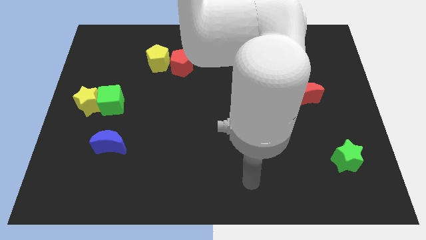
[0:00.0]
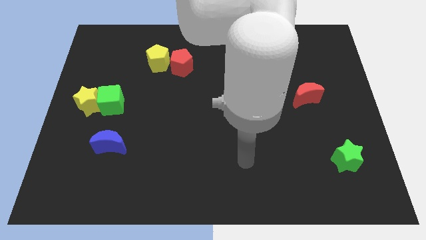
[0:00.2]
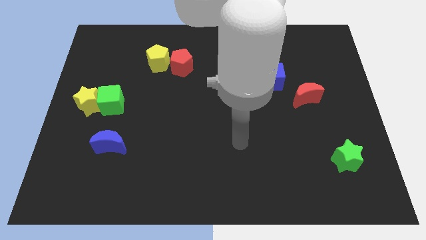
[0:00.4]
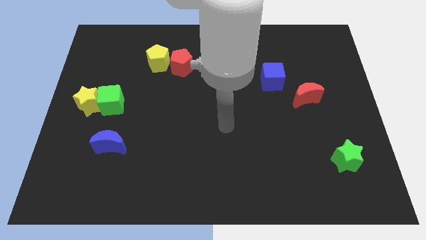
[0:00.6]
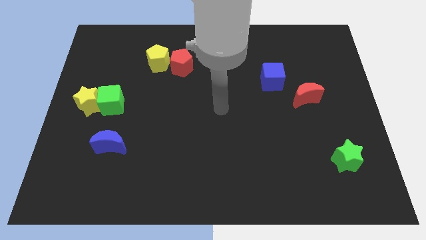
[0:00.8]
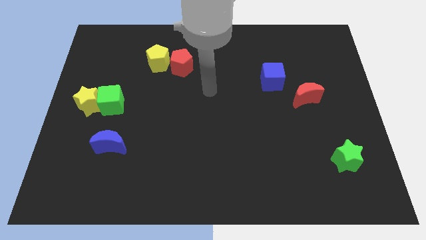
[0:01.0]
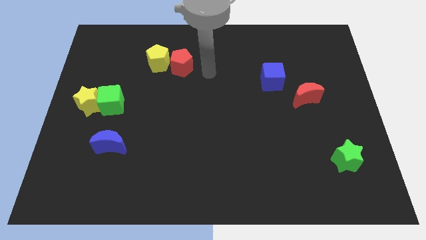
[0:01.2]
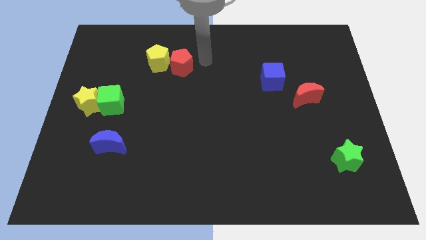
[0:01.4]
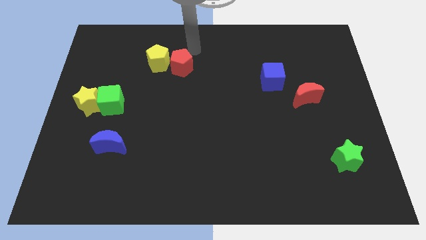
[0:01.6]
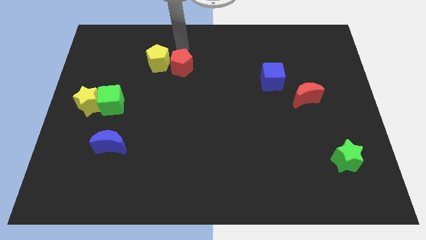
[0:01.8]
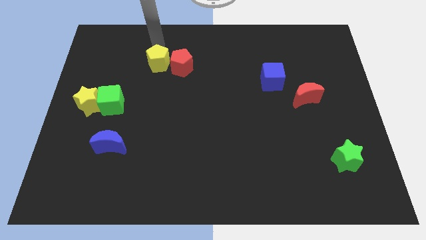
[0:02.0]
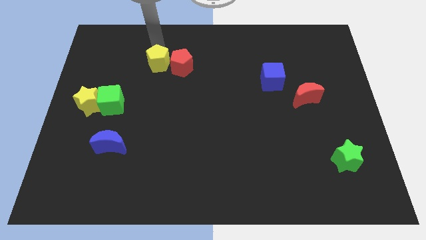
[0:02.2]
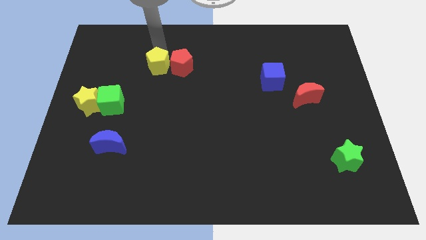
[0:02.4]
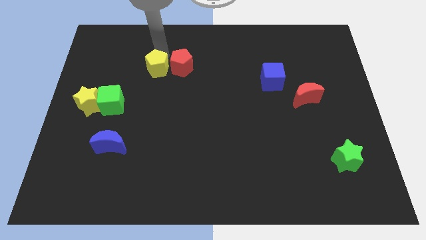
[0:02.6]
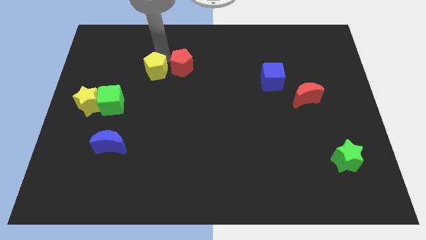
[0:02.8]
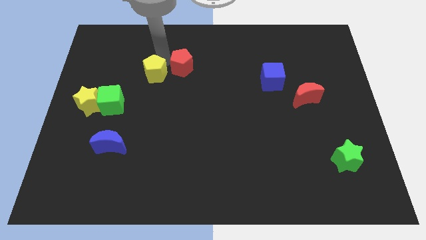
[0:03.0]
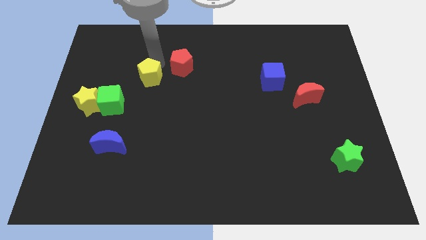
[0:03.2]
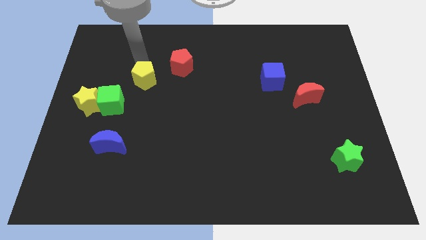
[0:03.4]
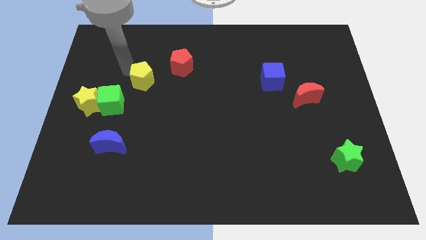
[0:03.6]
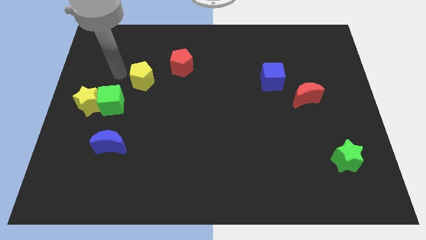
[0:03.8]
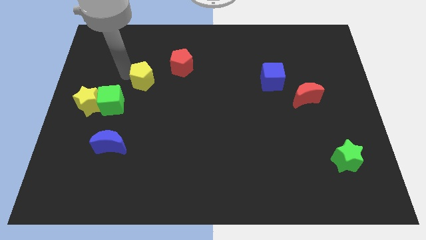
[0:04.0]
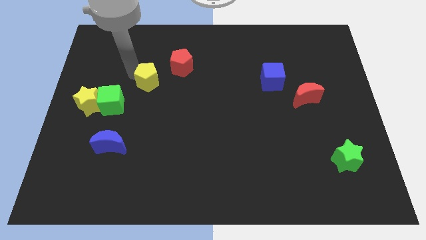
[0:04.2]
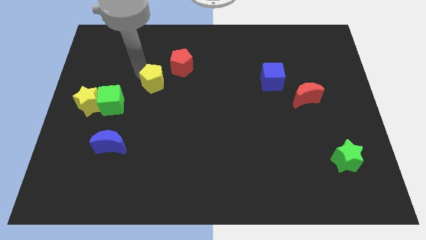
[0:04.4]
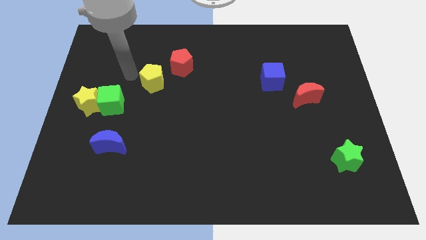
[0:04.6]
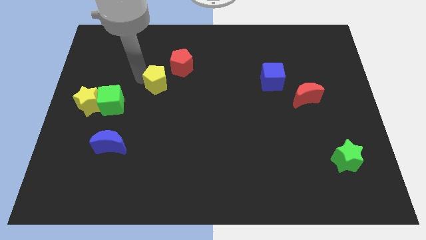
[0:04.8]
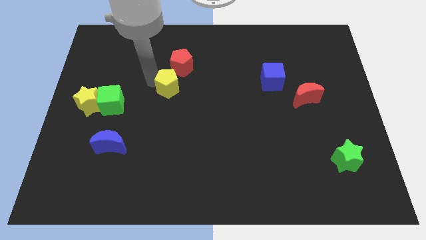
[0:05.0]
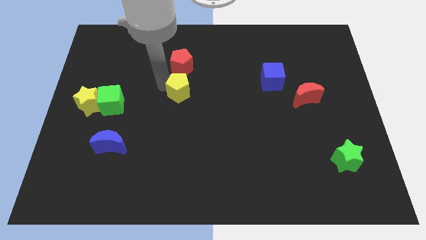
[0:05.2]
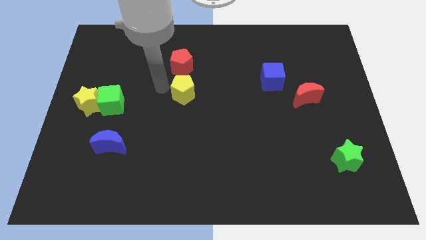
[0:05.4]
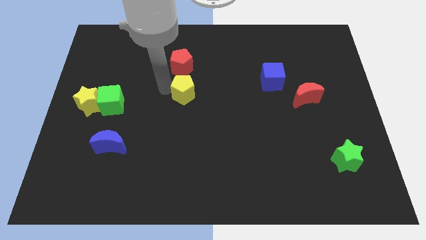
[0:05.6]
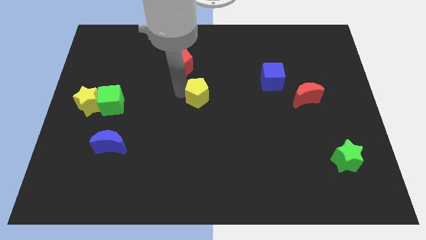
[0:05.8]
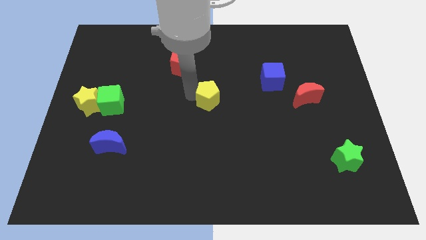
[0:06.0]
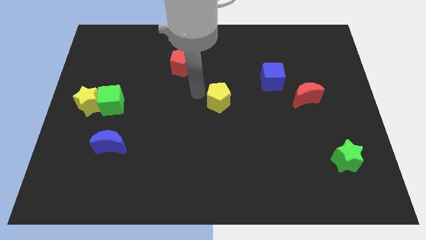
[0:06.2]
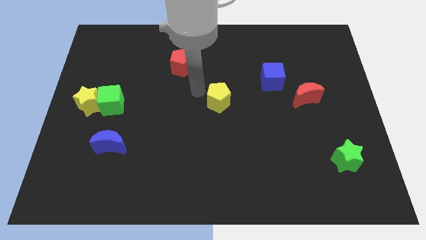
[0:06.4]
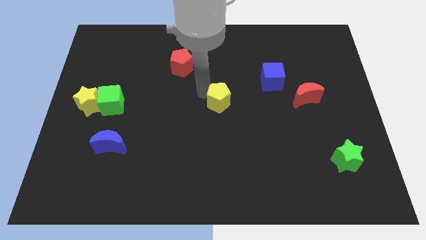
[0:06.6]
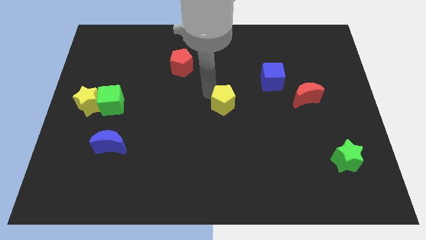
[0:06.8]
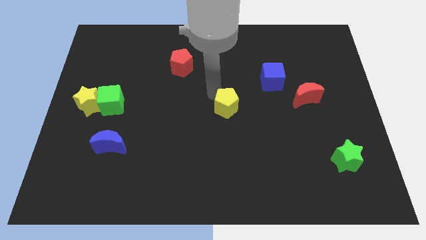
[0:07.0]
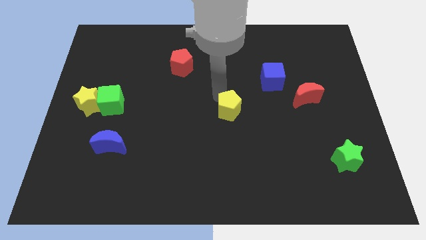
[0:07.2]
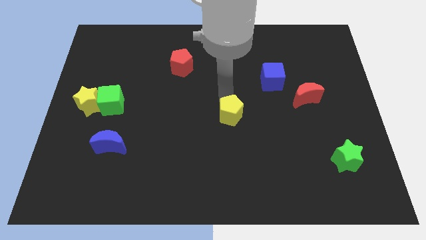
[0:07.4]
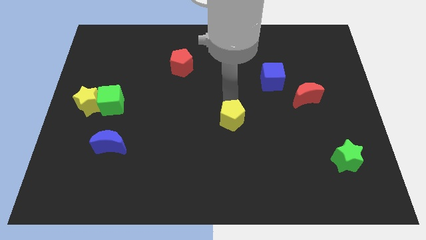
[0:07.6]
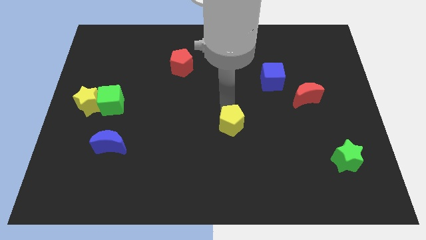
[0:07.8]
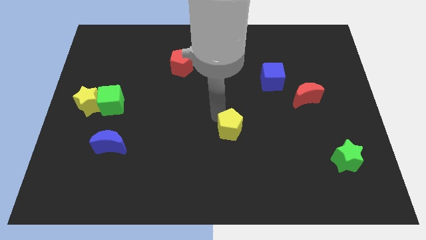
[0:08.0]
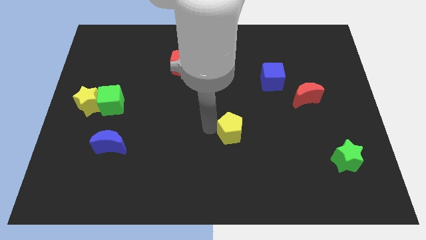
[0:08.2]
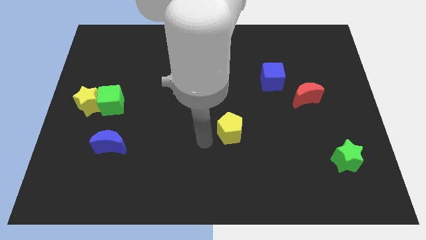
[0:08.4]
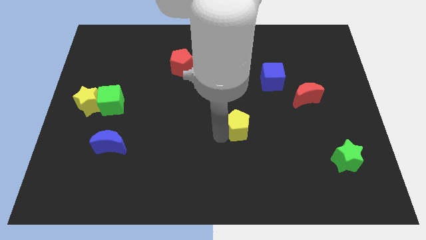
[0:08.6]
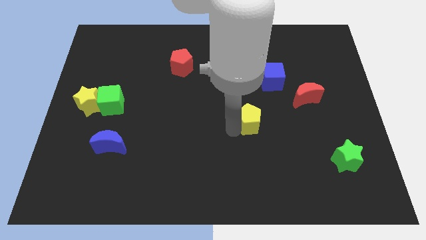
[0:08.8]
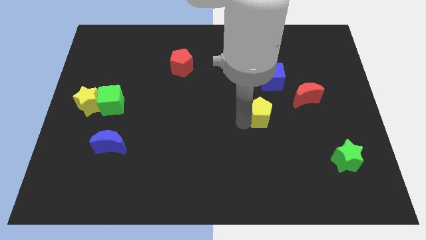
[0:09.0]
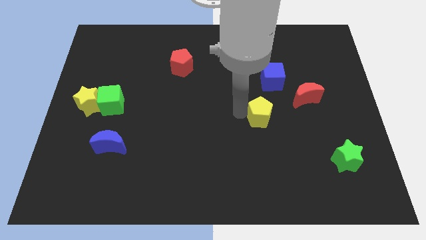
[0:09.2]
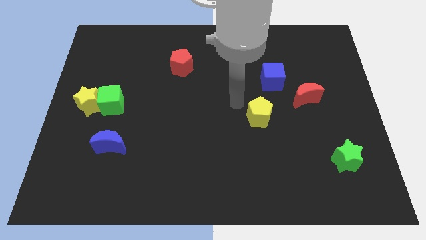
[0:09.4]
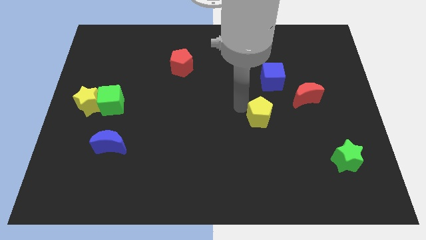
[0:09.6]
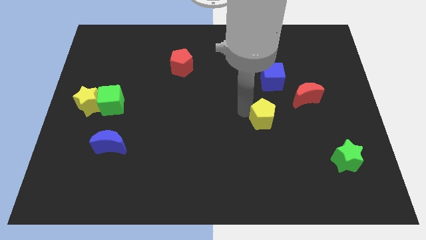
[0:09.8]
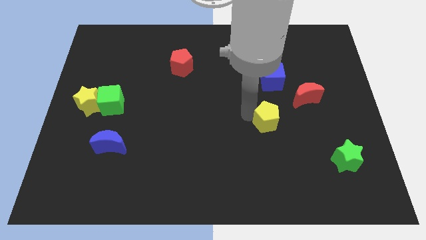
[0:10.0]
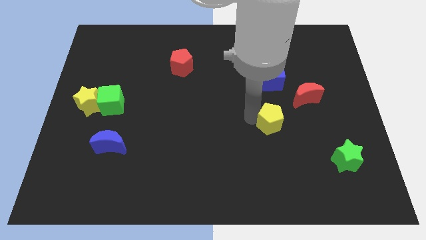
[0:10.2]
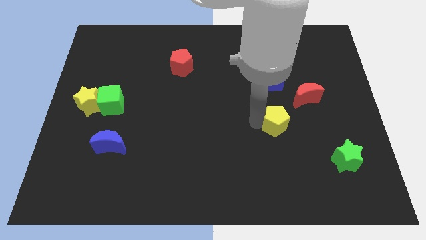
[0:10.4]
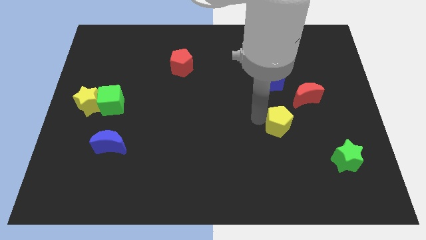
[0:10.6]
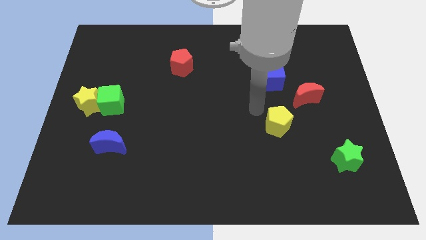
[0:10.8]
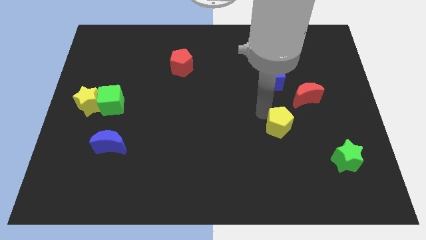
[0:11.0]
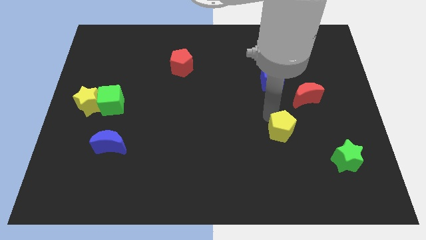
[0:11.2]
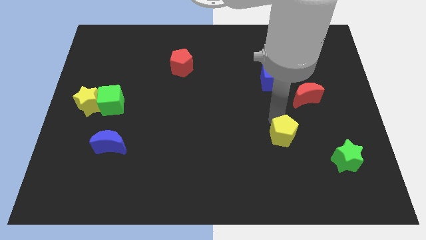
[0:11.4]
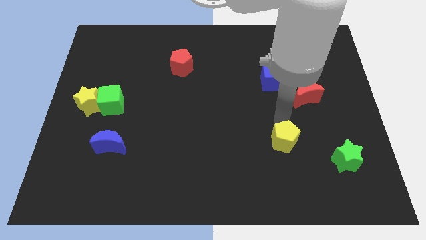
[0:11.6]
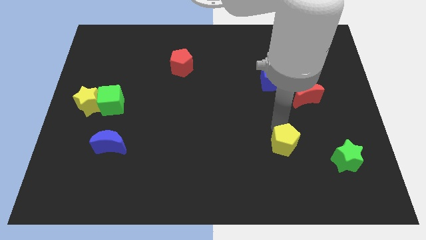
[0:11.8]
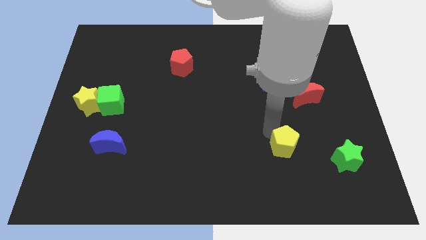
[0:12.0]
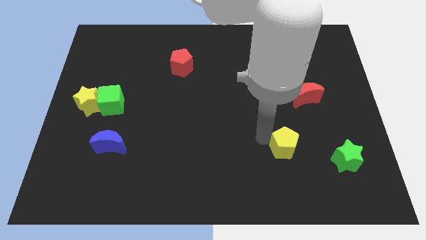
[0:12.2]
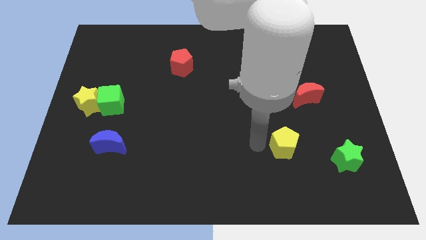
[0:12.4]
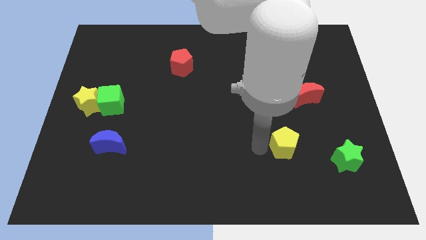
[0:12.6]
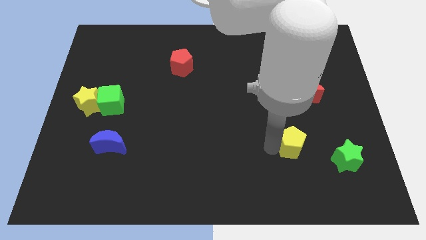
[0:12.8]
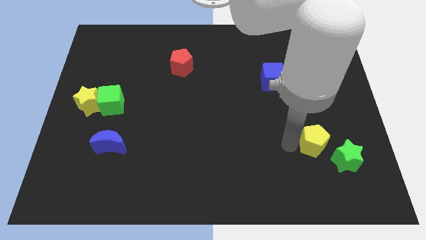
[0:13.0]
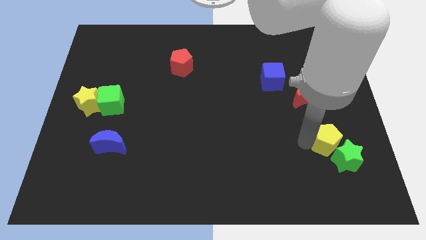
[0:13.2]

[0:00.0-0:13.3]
put the yellow pentagon to the green star
